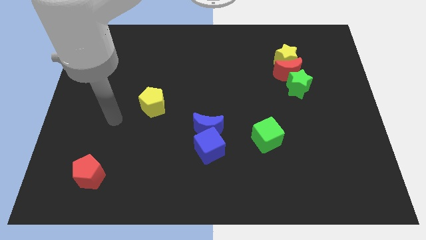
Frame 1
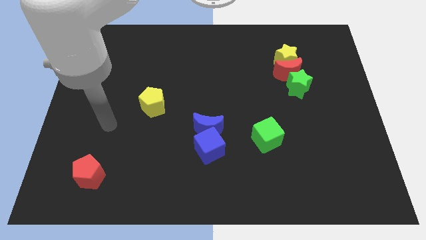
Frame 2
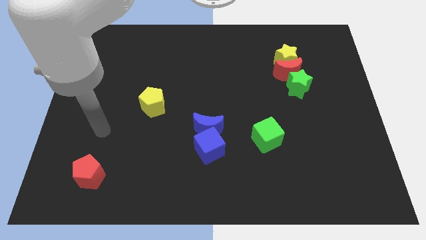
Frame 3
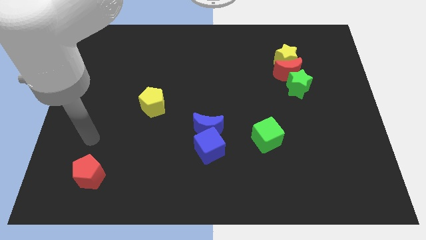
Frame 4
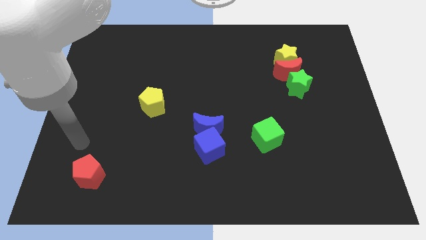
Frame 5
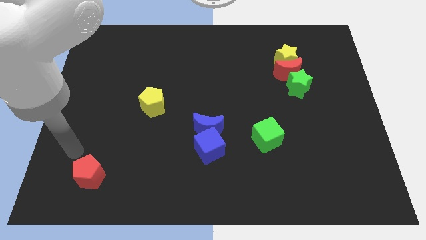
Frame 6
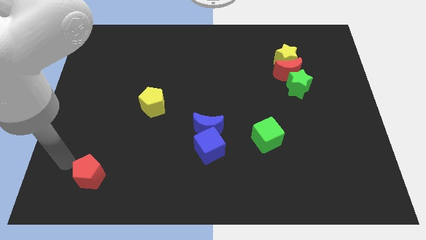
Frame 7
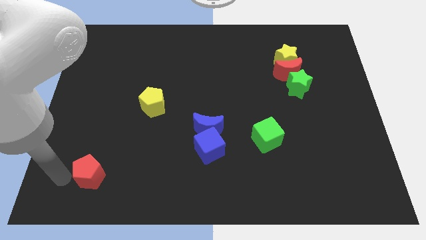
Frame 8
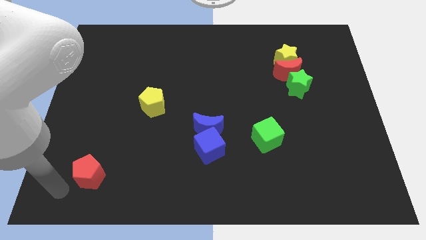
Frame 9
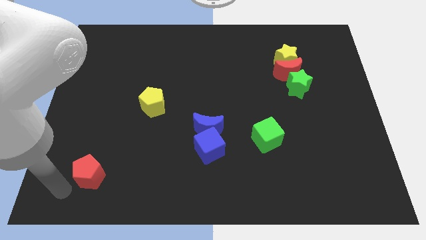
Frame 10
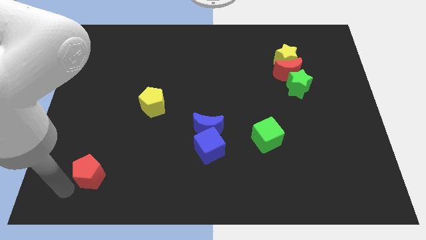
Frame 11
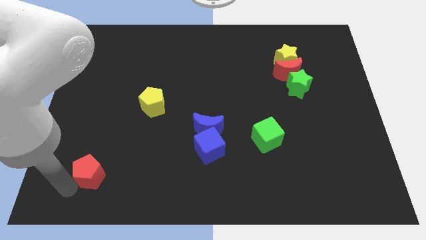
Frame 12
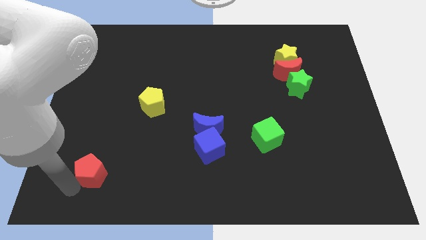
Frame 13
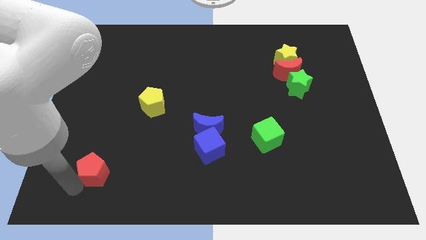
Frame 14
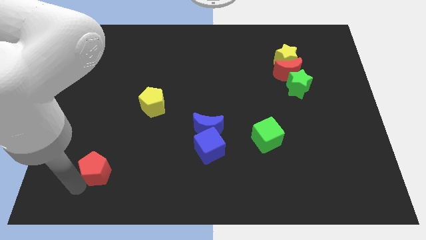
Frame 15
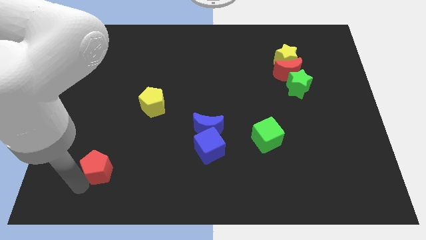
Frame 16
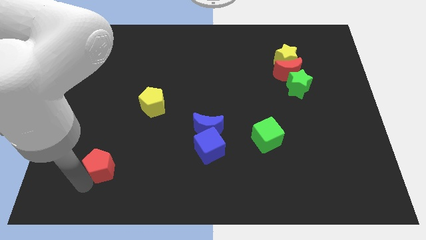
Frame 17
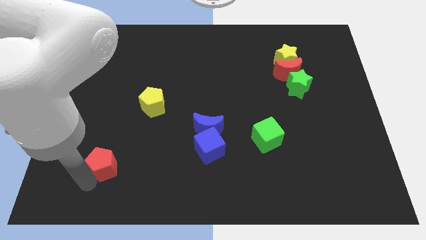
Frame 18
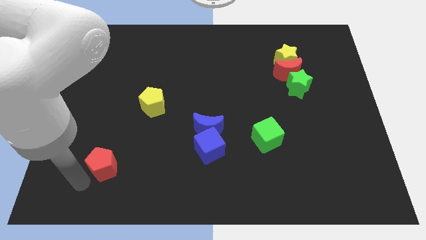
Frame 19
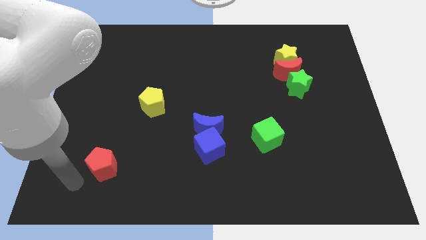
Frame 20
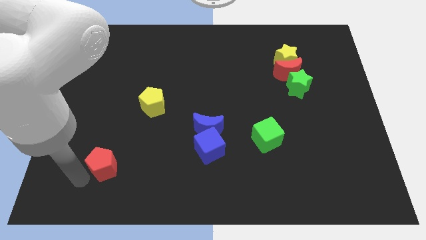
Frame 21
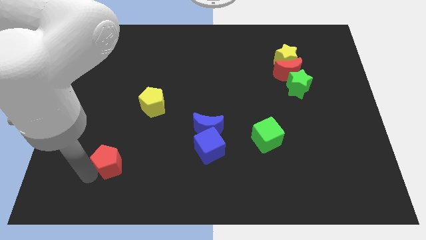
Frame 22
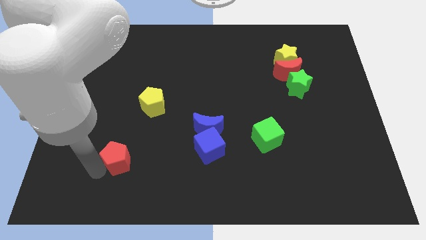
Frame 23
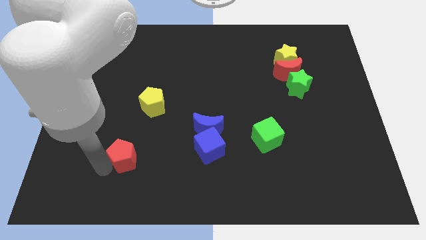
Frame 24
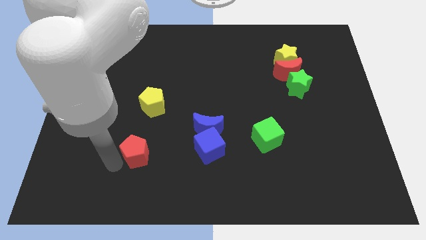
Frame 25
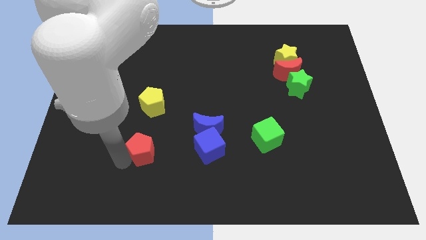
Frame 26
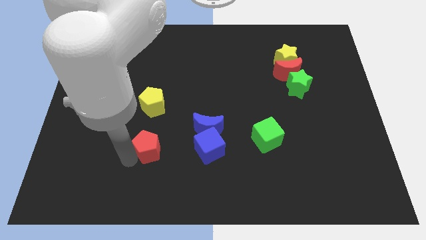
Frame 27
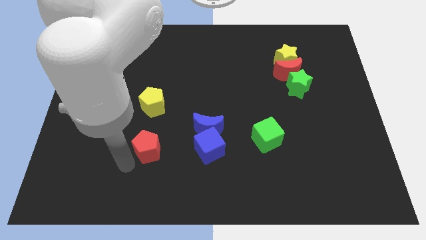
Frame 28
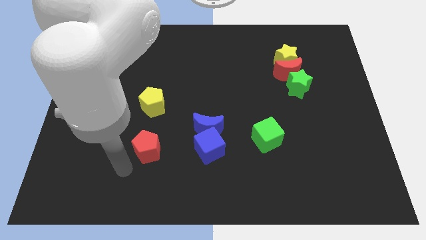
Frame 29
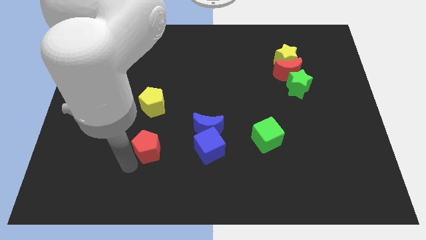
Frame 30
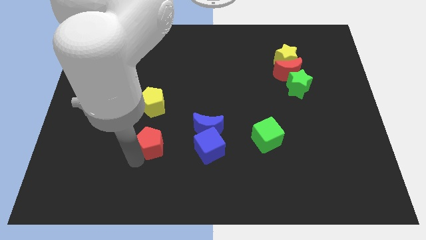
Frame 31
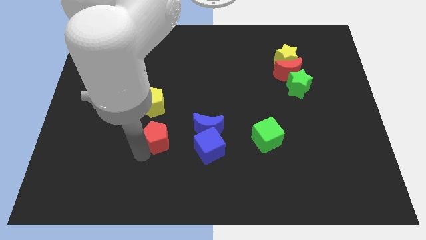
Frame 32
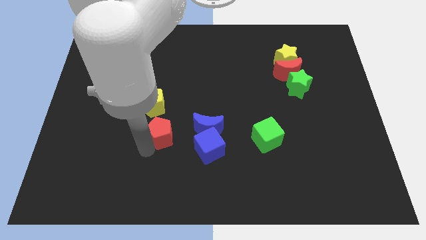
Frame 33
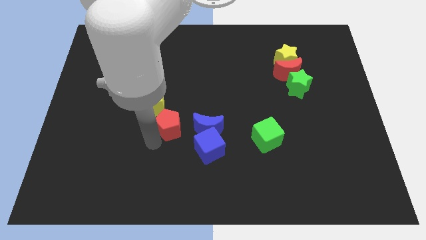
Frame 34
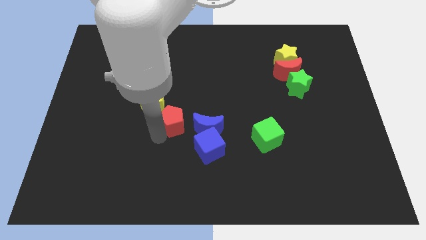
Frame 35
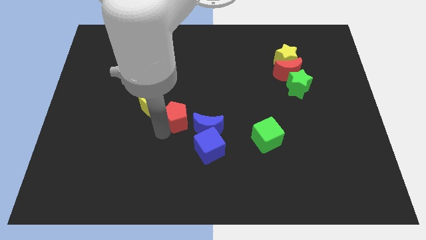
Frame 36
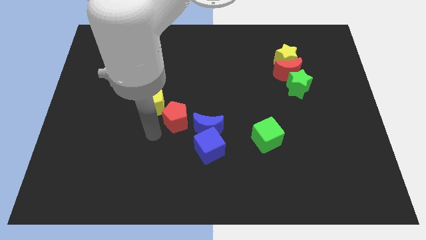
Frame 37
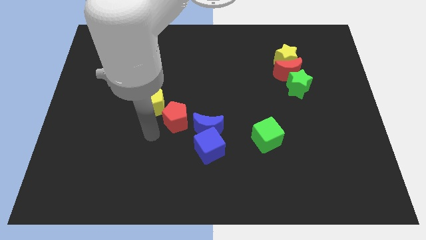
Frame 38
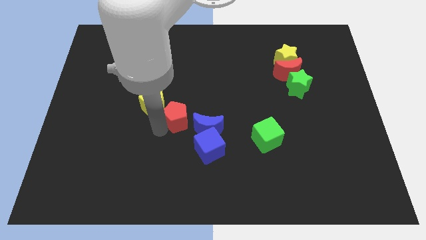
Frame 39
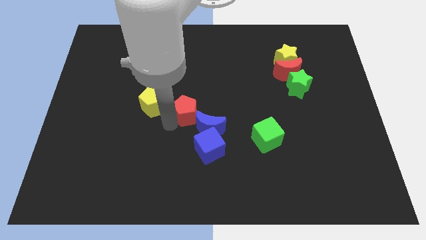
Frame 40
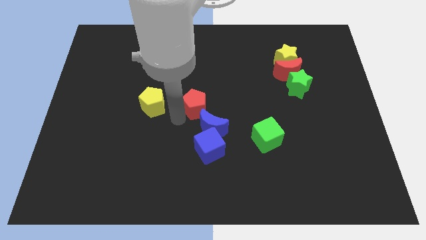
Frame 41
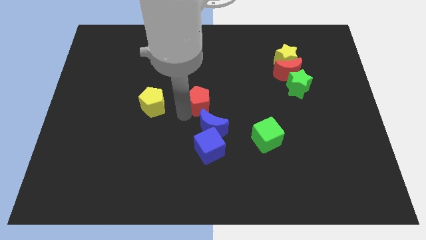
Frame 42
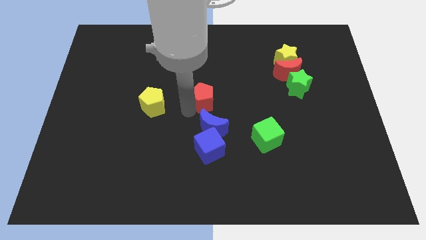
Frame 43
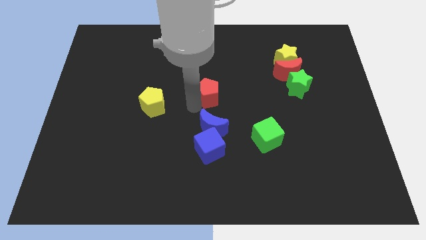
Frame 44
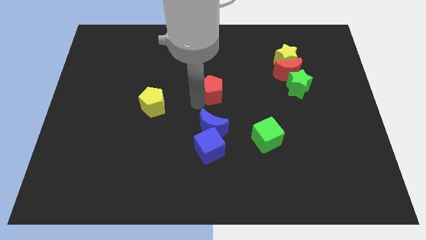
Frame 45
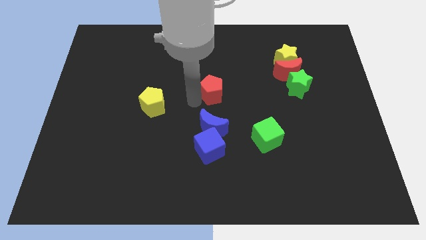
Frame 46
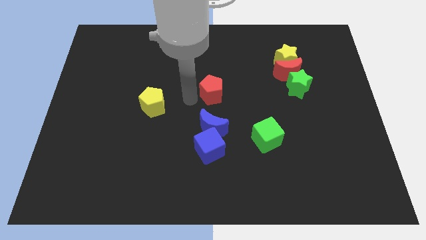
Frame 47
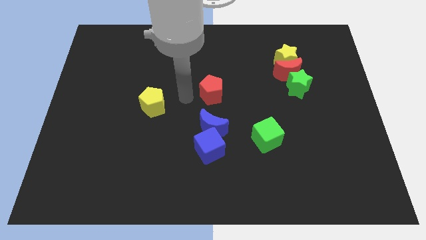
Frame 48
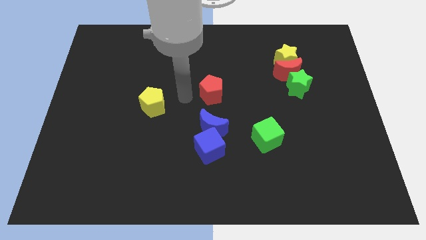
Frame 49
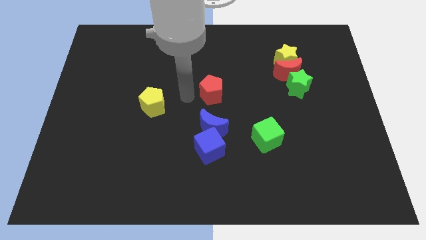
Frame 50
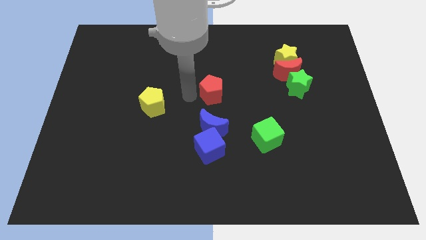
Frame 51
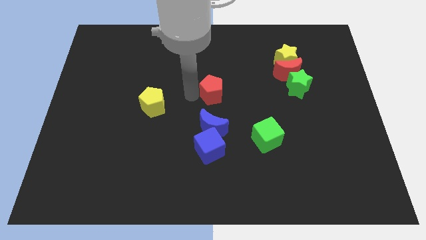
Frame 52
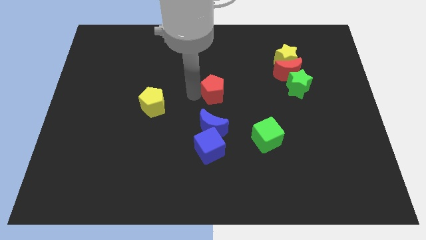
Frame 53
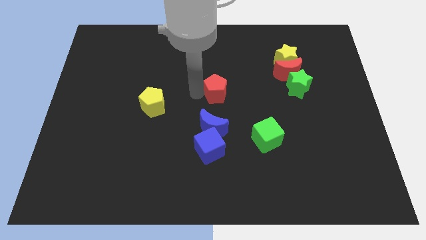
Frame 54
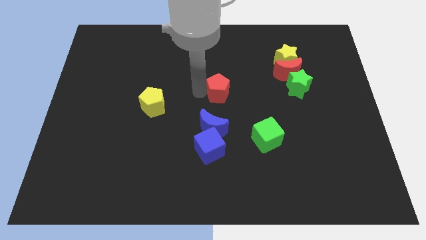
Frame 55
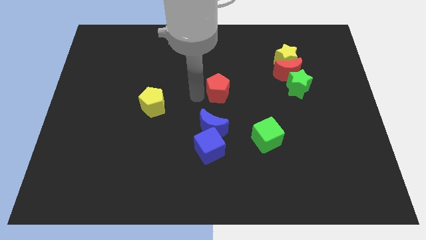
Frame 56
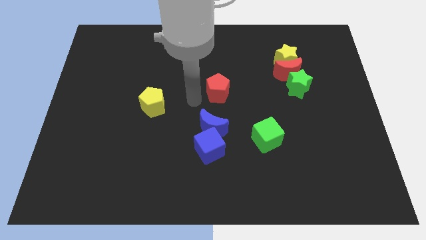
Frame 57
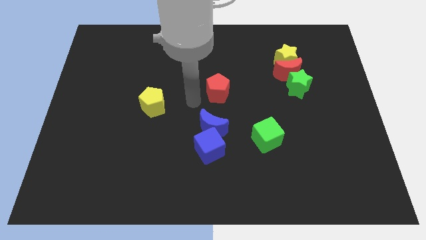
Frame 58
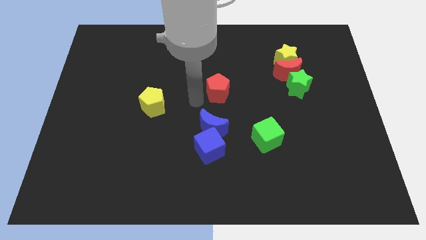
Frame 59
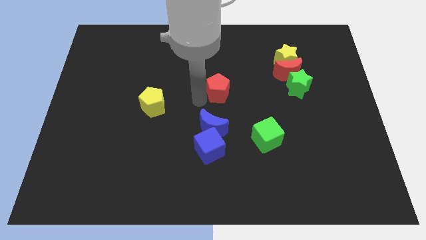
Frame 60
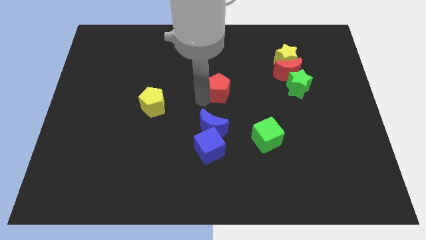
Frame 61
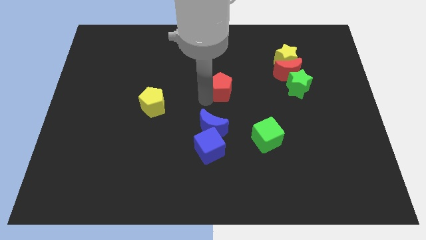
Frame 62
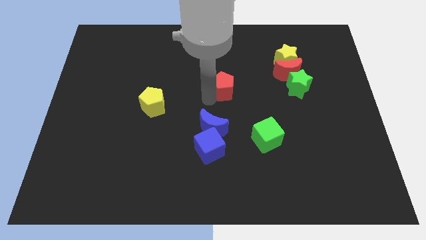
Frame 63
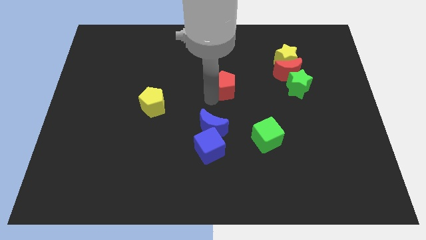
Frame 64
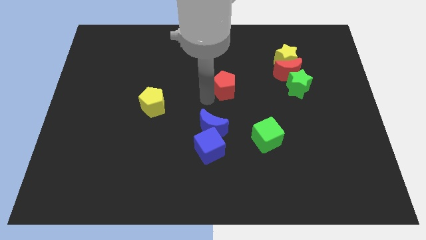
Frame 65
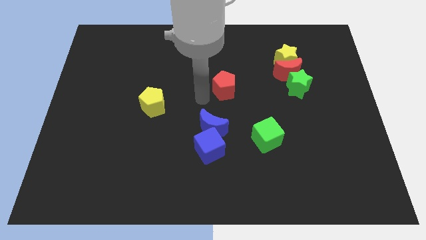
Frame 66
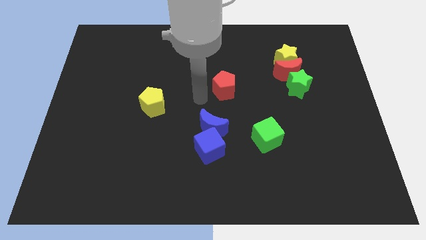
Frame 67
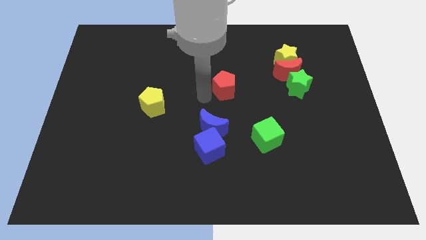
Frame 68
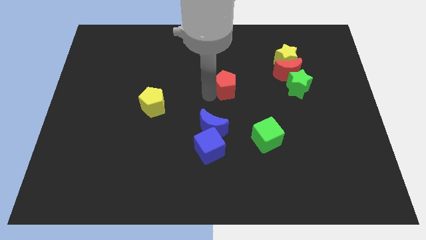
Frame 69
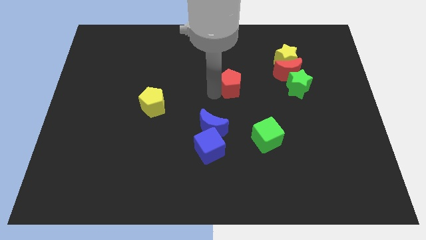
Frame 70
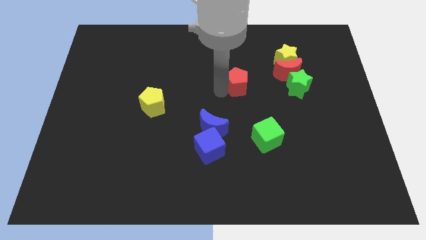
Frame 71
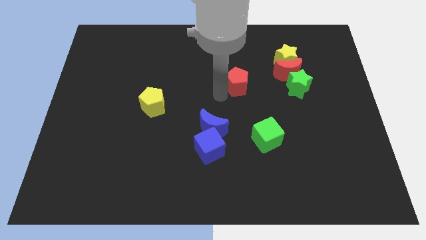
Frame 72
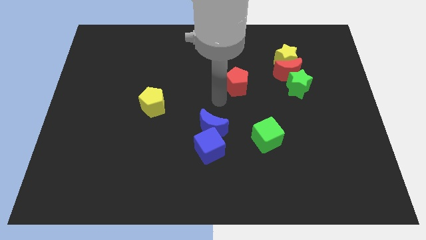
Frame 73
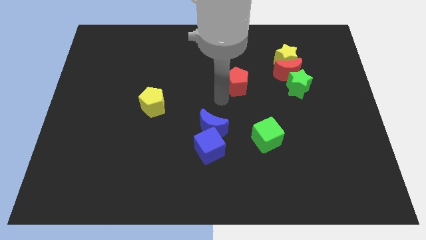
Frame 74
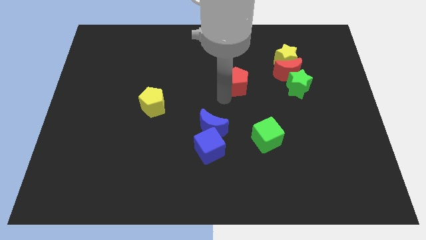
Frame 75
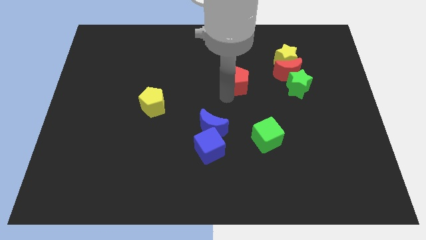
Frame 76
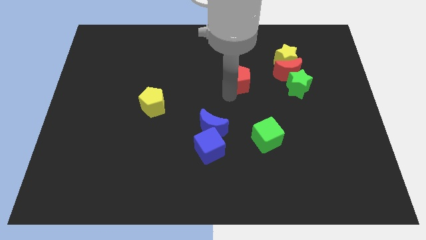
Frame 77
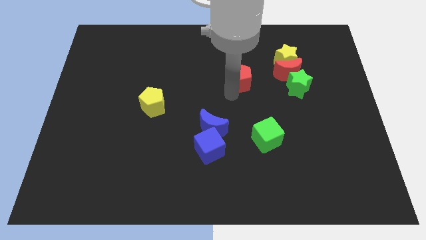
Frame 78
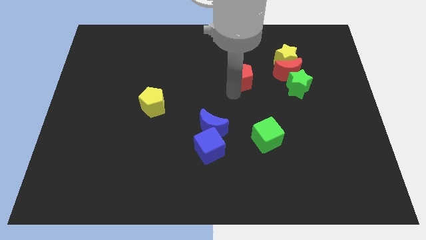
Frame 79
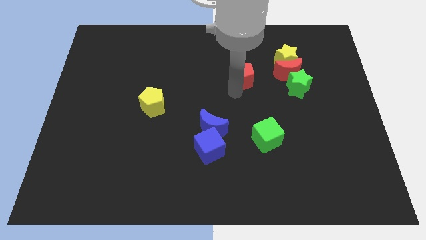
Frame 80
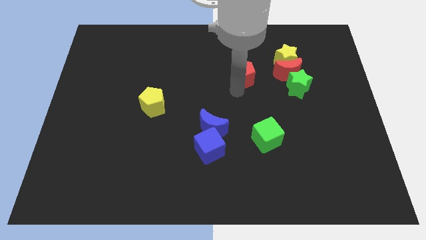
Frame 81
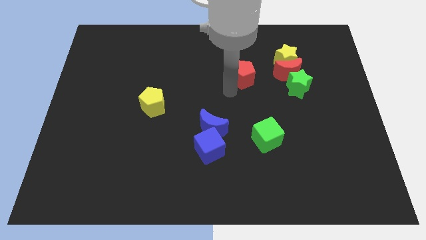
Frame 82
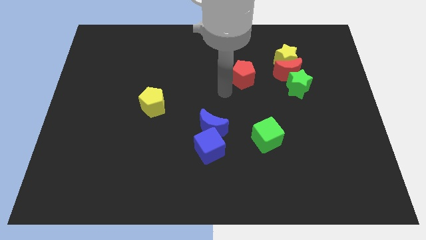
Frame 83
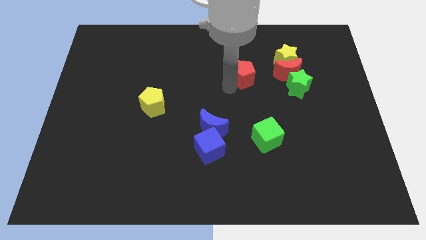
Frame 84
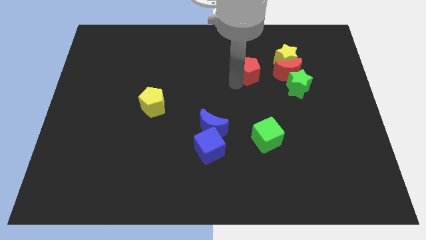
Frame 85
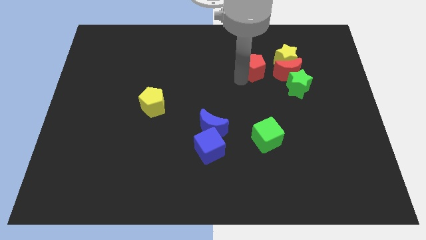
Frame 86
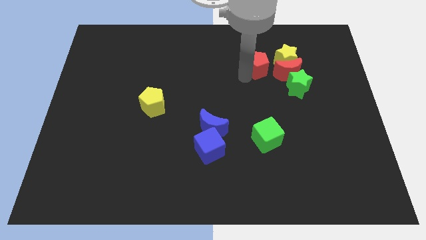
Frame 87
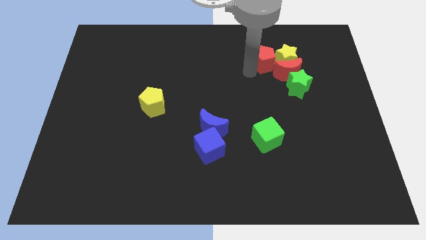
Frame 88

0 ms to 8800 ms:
put the red pentagon close to the yellow star
